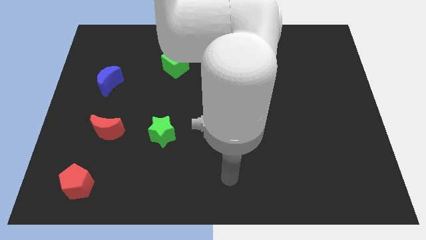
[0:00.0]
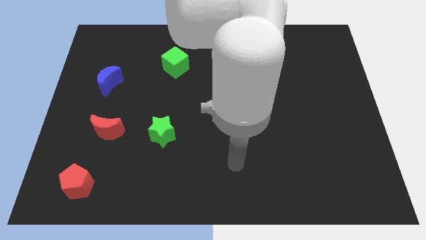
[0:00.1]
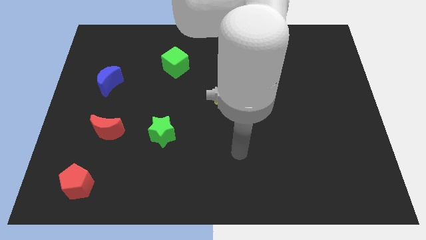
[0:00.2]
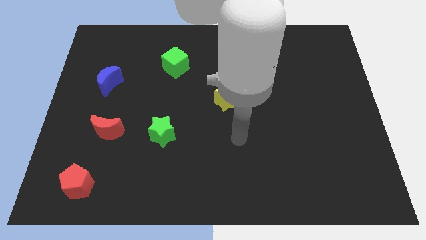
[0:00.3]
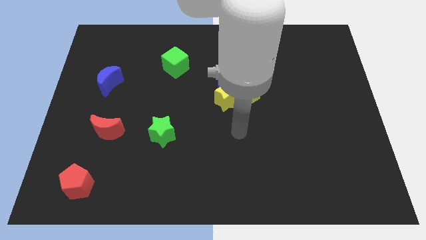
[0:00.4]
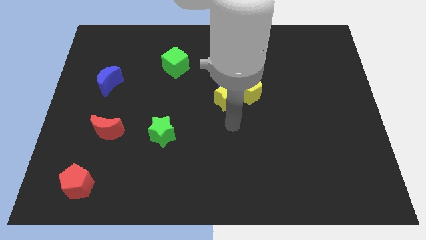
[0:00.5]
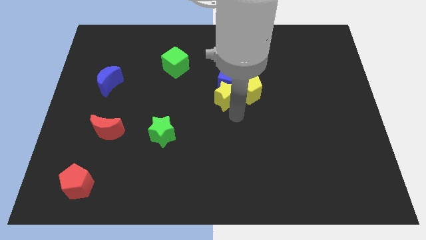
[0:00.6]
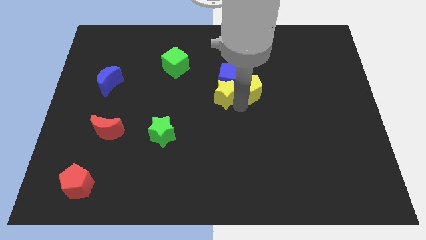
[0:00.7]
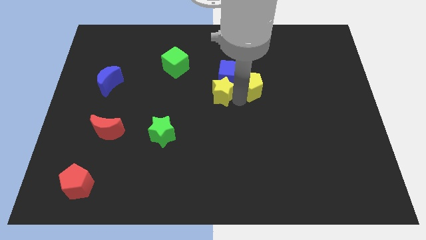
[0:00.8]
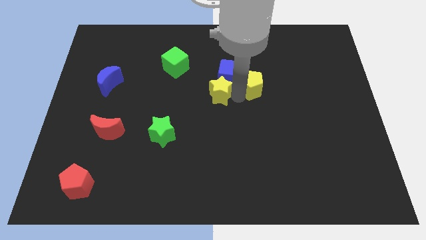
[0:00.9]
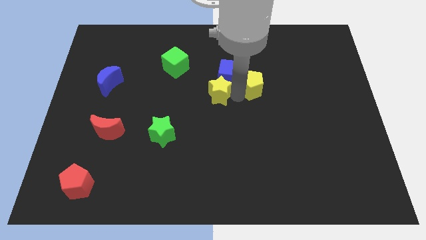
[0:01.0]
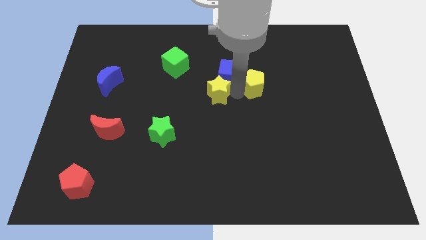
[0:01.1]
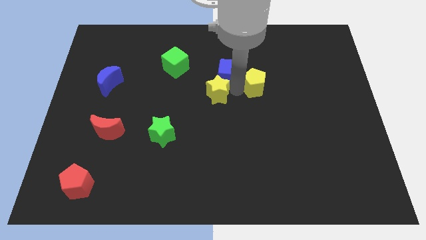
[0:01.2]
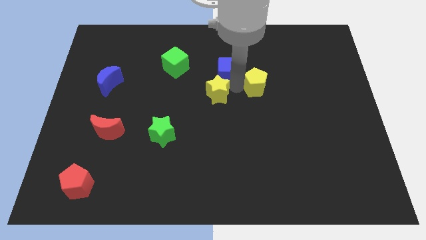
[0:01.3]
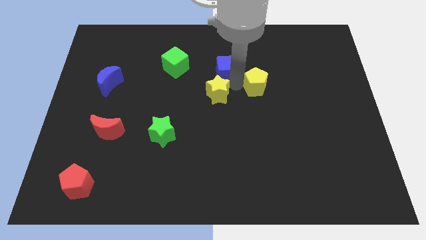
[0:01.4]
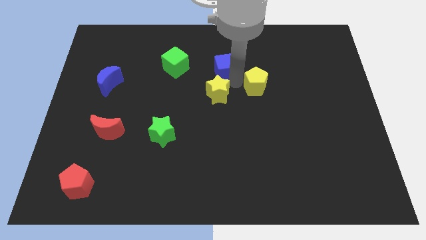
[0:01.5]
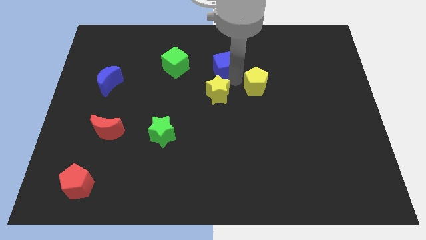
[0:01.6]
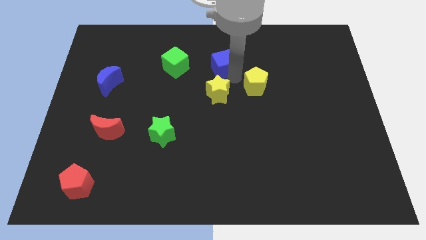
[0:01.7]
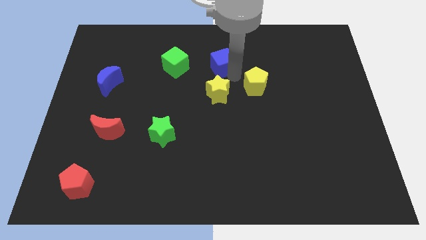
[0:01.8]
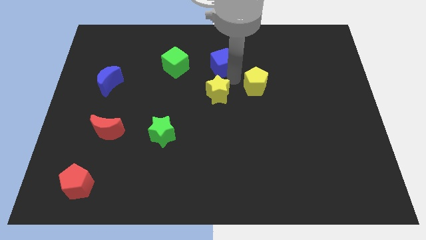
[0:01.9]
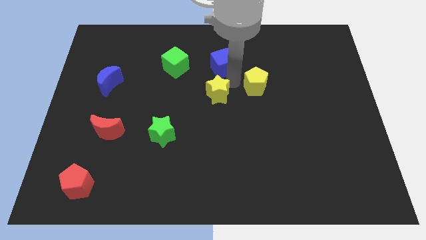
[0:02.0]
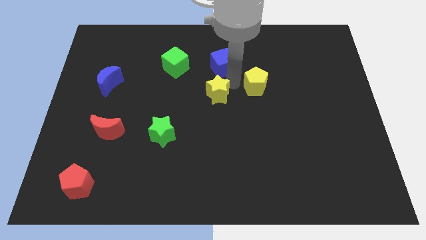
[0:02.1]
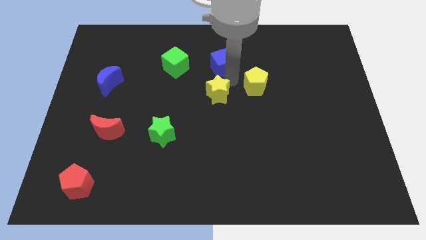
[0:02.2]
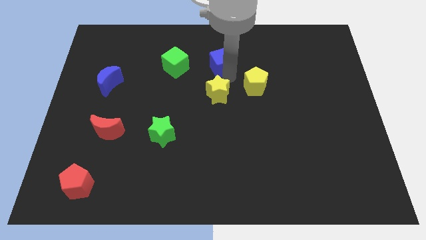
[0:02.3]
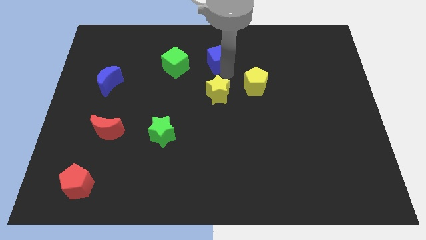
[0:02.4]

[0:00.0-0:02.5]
pull the blue cube apart from the yellow pentagon and yellow star

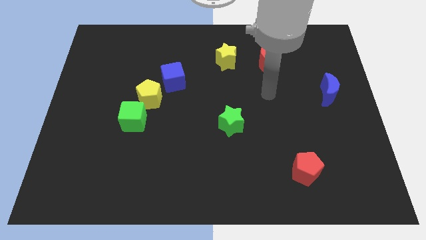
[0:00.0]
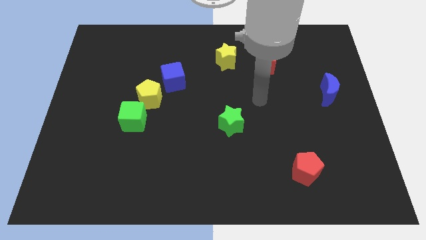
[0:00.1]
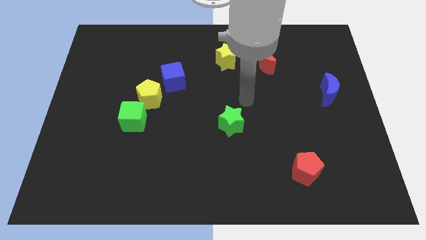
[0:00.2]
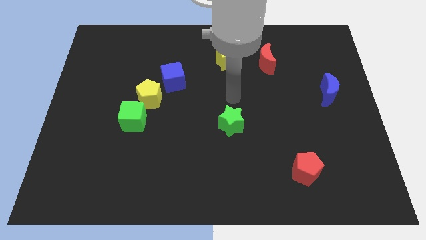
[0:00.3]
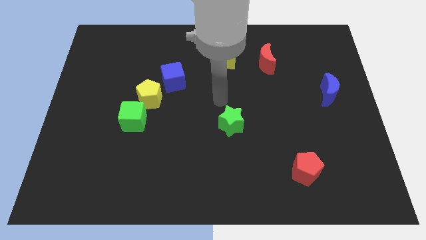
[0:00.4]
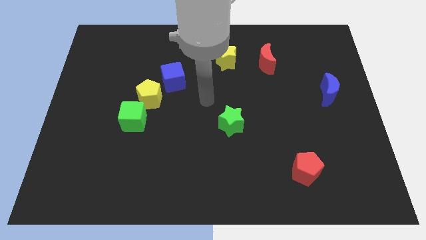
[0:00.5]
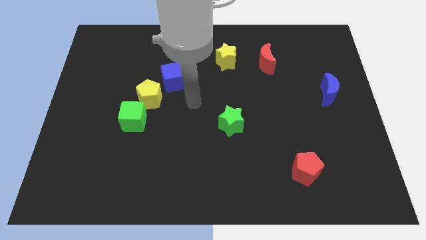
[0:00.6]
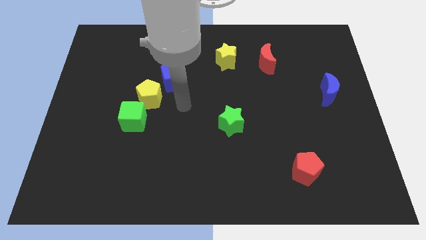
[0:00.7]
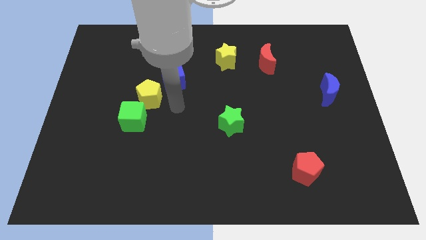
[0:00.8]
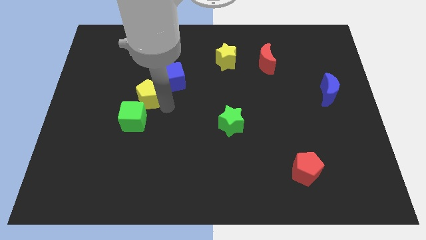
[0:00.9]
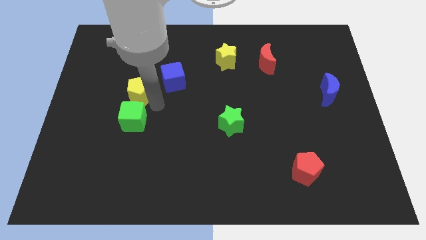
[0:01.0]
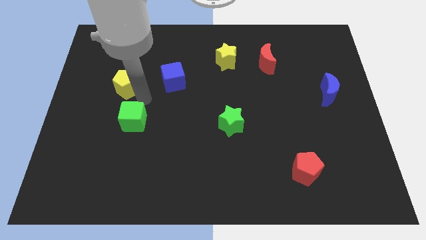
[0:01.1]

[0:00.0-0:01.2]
pull the green cube apart from the yellow pentagon

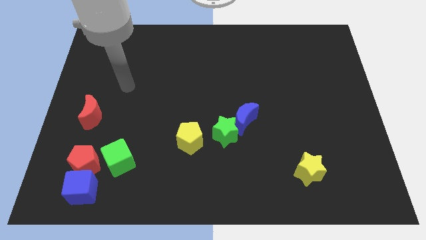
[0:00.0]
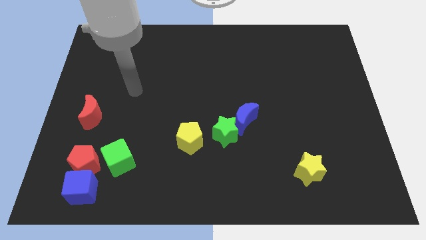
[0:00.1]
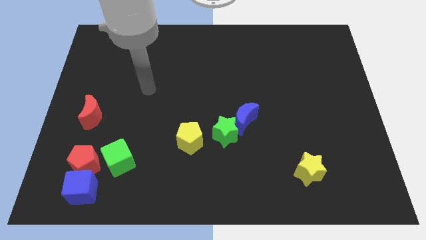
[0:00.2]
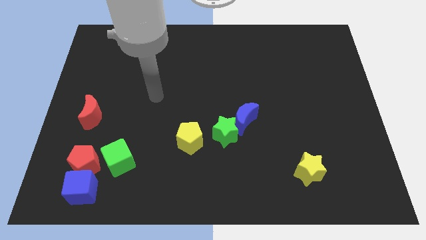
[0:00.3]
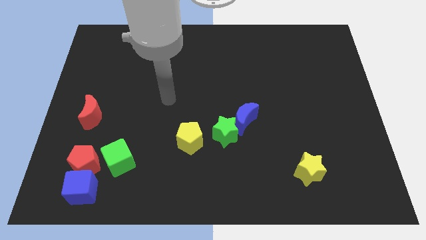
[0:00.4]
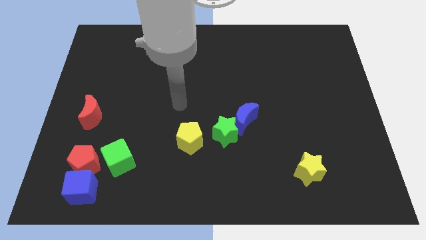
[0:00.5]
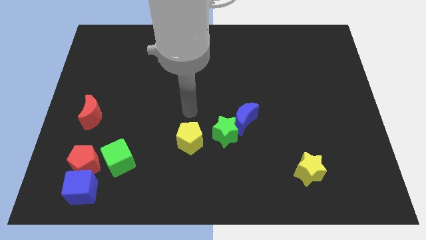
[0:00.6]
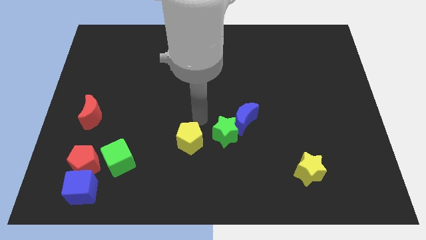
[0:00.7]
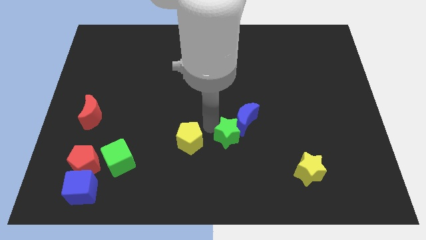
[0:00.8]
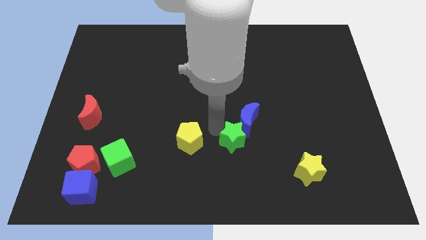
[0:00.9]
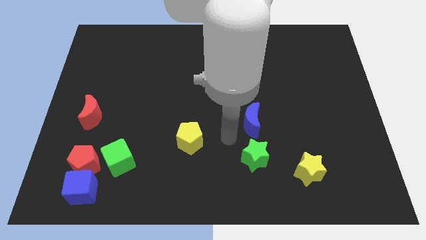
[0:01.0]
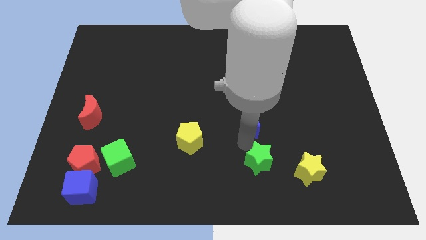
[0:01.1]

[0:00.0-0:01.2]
pull the blue moon apart from the green star

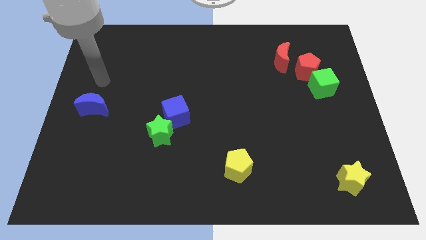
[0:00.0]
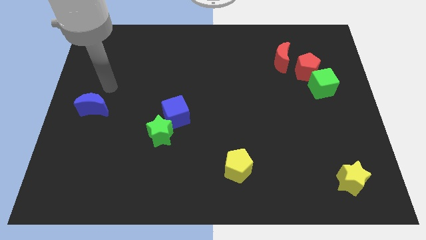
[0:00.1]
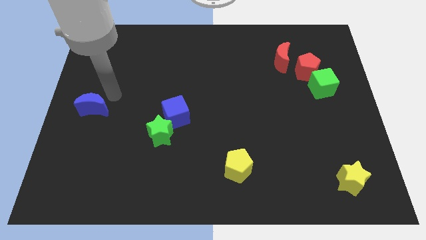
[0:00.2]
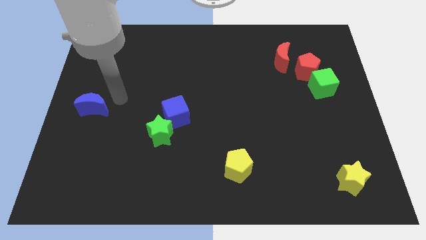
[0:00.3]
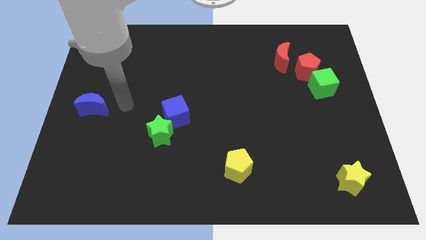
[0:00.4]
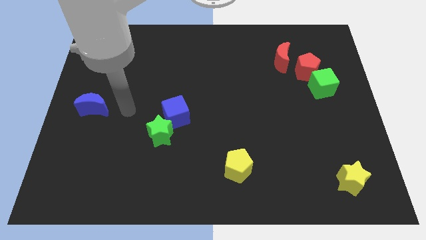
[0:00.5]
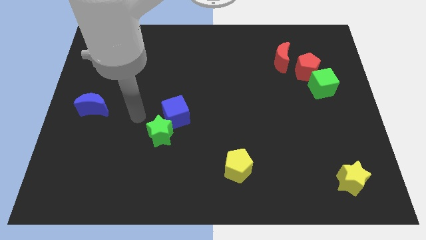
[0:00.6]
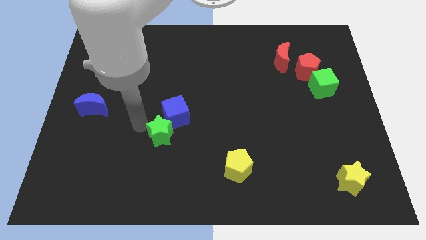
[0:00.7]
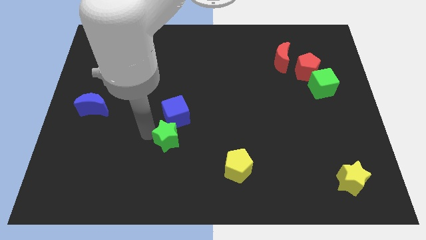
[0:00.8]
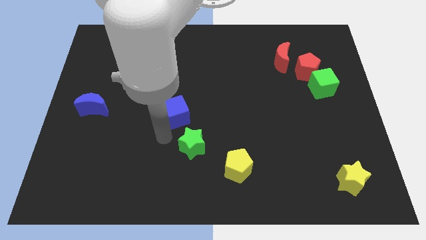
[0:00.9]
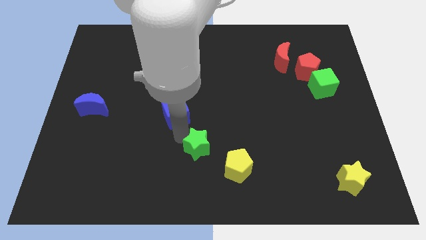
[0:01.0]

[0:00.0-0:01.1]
move the blue cube away from the green star

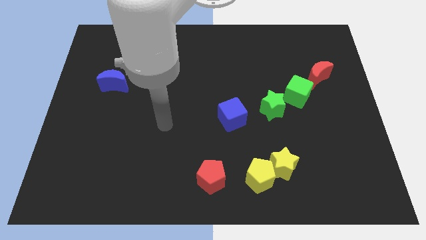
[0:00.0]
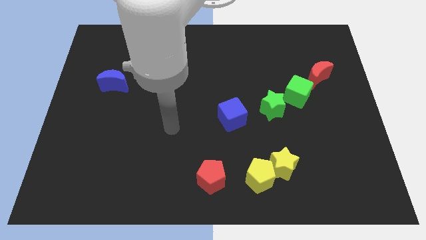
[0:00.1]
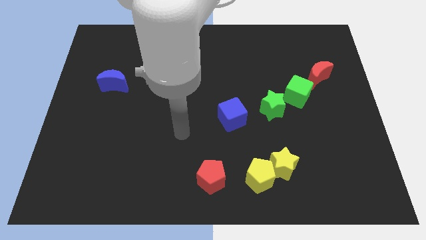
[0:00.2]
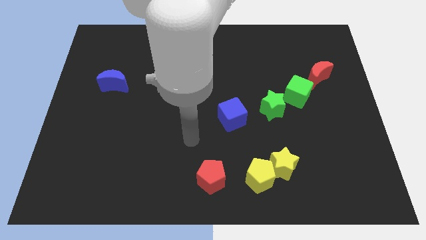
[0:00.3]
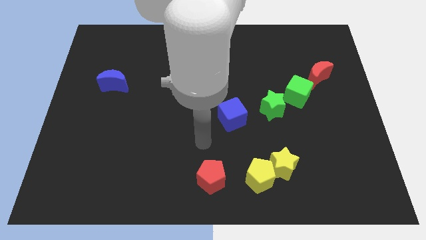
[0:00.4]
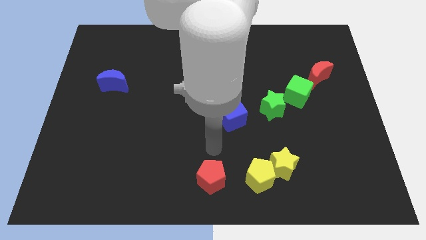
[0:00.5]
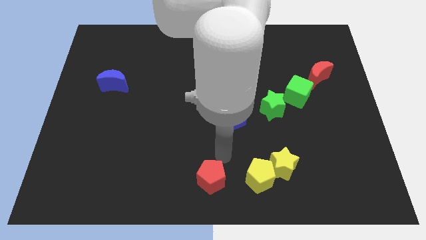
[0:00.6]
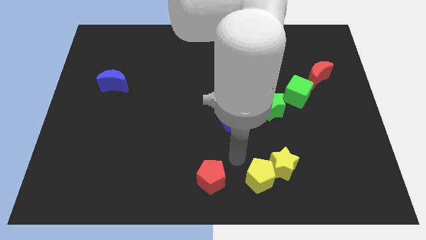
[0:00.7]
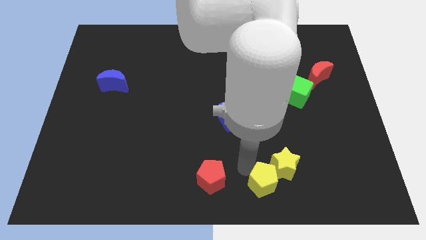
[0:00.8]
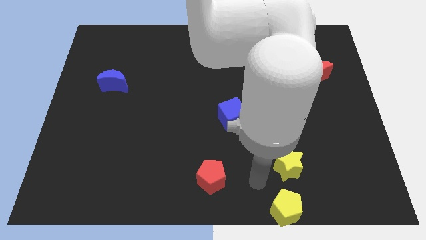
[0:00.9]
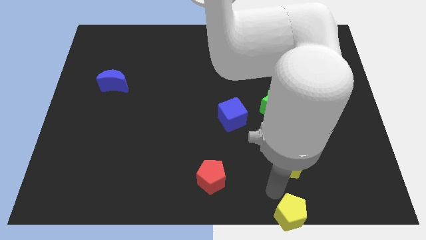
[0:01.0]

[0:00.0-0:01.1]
move the yellow star away from the yellow pentagon

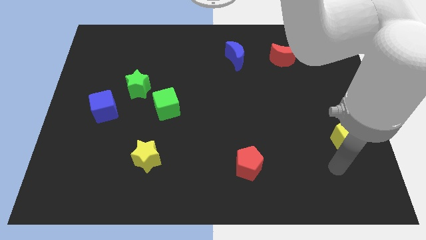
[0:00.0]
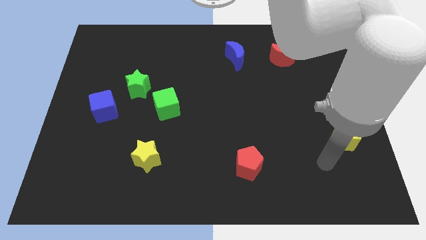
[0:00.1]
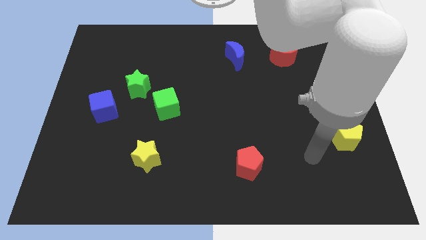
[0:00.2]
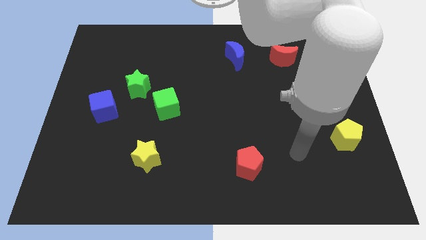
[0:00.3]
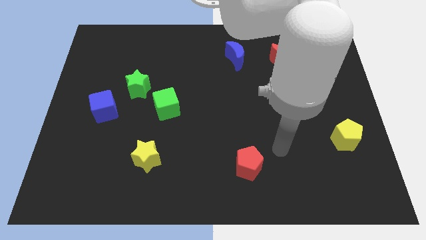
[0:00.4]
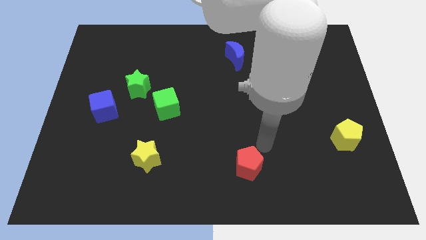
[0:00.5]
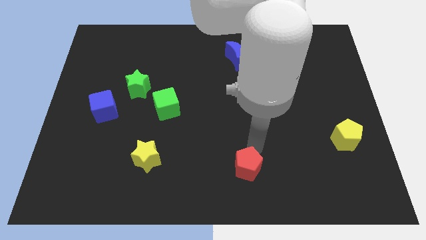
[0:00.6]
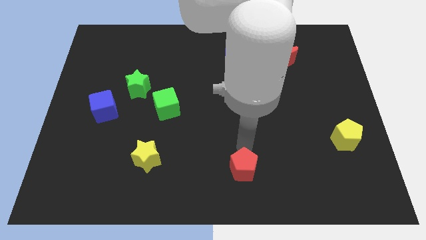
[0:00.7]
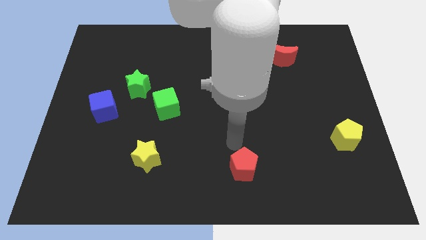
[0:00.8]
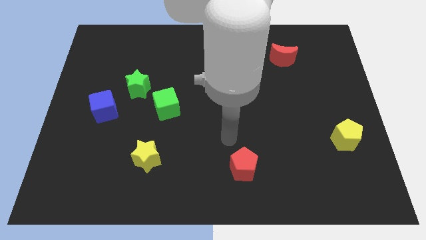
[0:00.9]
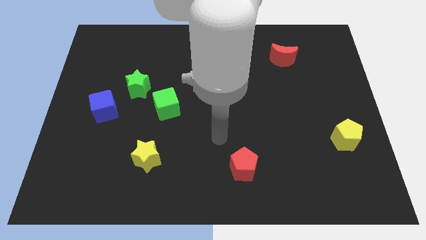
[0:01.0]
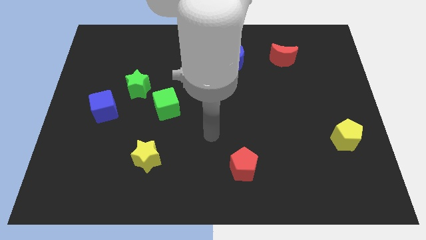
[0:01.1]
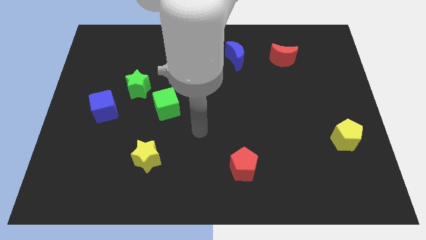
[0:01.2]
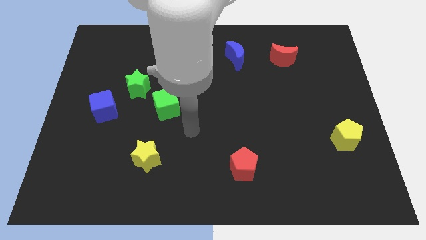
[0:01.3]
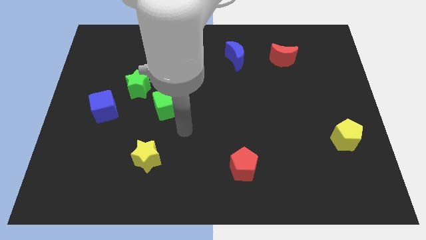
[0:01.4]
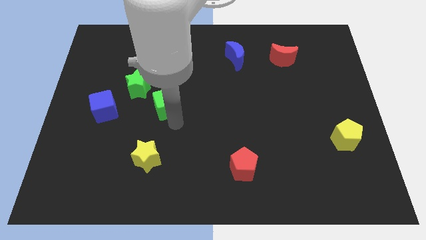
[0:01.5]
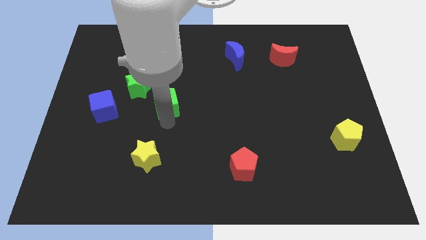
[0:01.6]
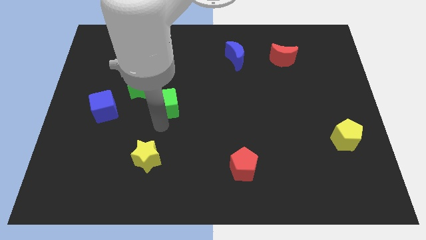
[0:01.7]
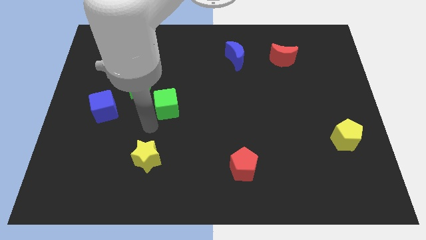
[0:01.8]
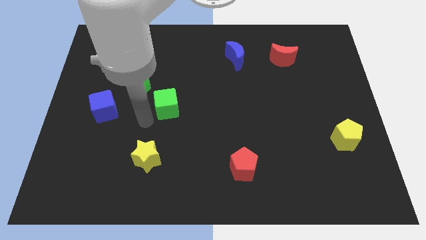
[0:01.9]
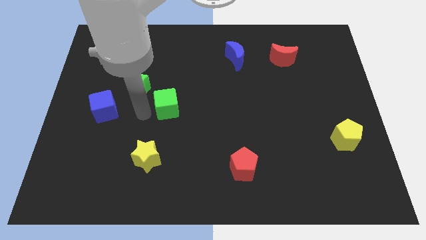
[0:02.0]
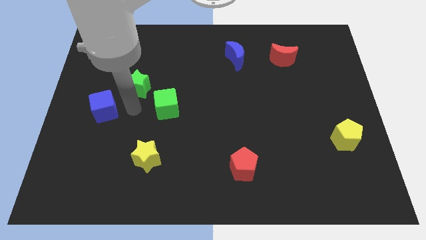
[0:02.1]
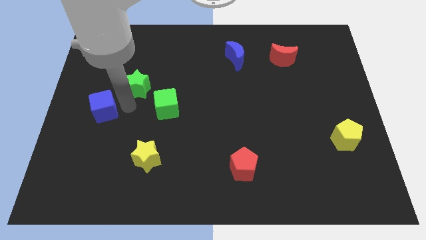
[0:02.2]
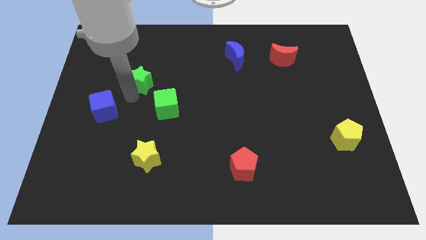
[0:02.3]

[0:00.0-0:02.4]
pull the blue cube apart from the green star
